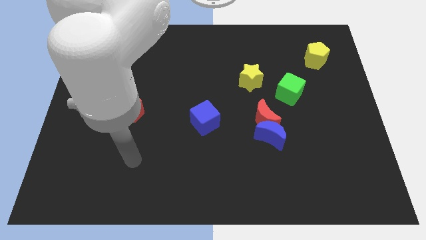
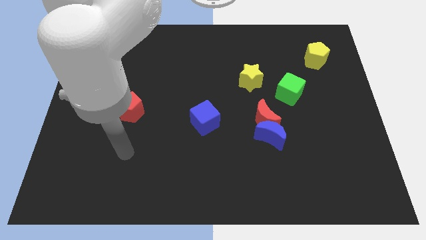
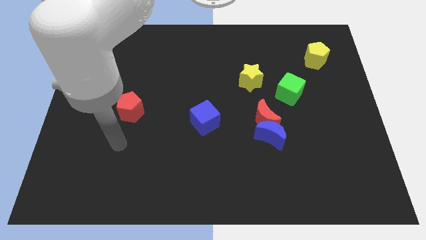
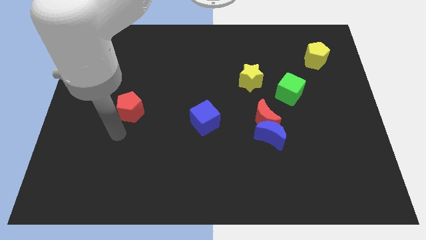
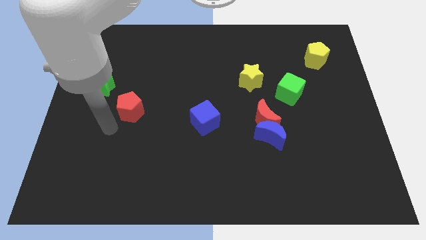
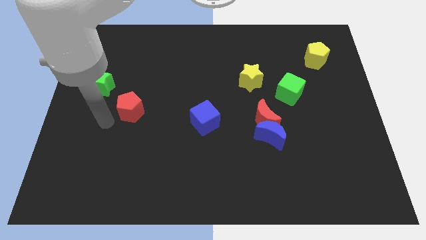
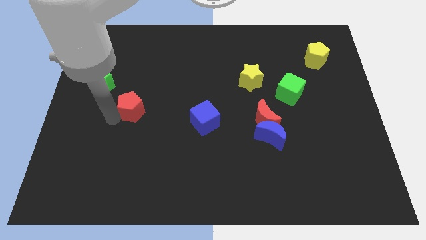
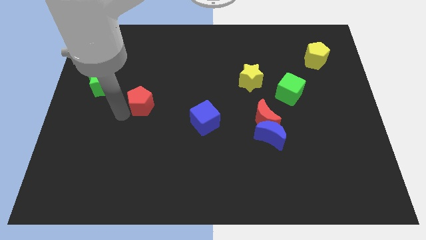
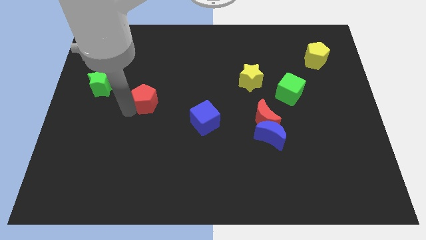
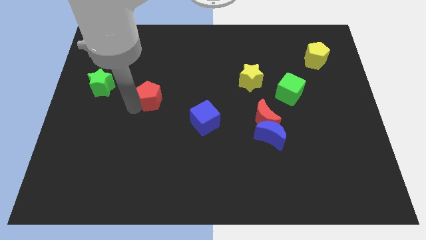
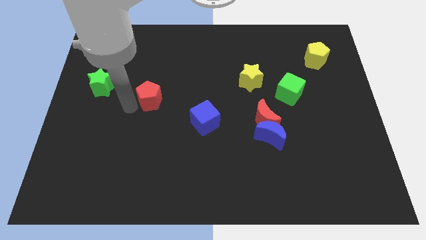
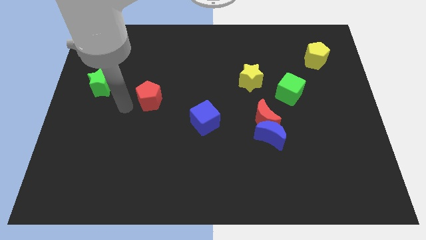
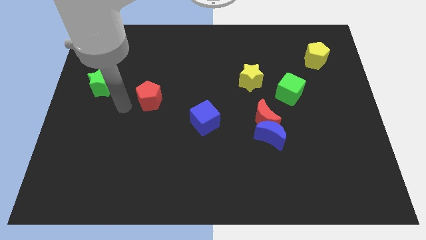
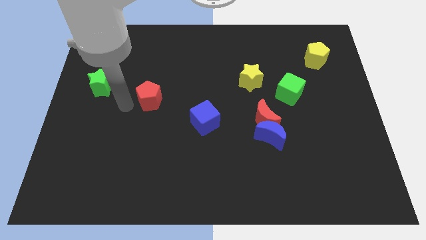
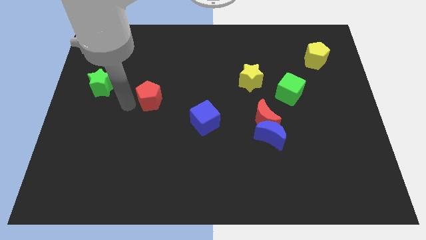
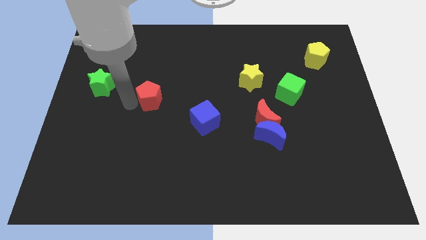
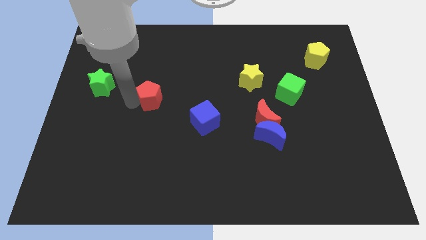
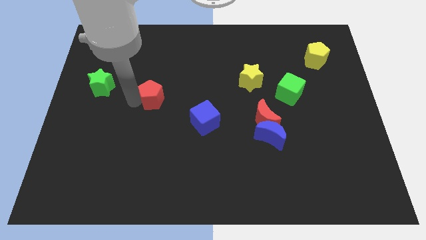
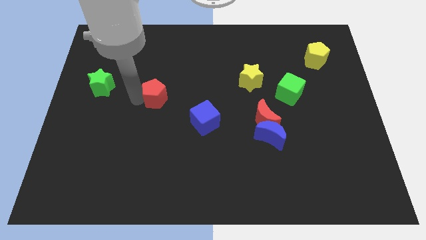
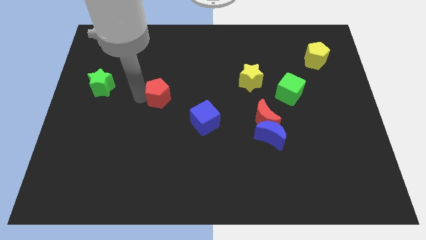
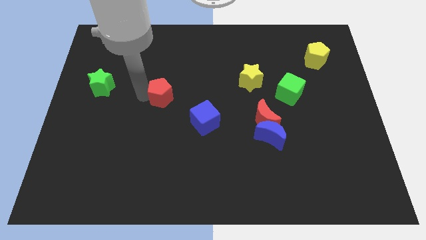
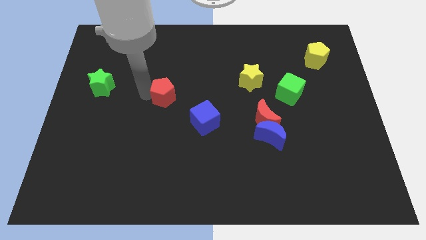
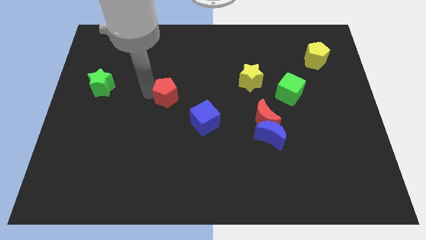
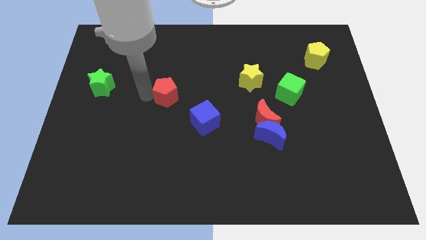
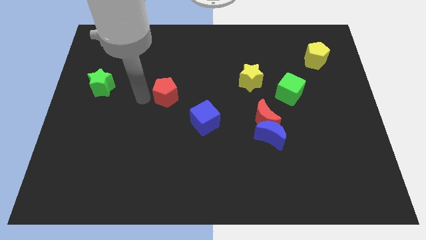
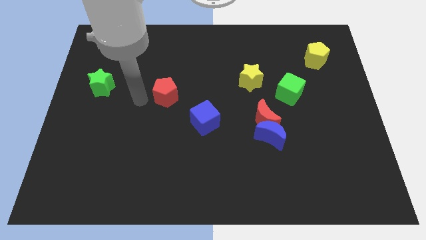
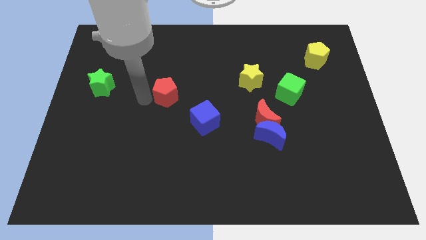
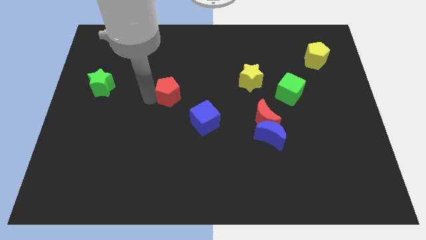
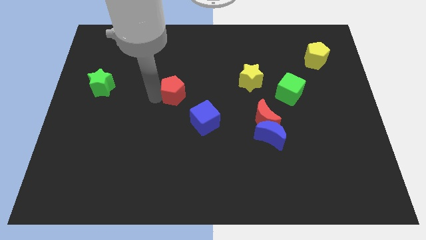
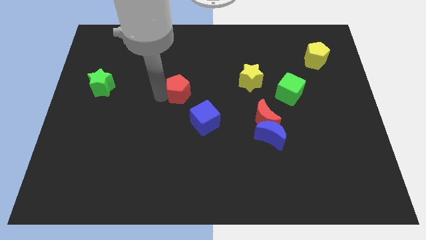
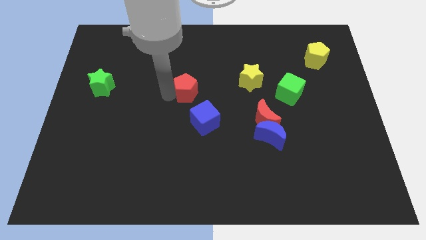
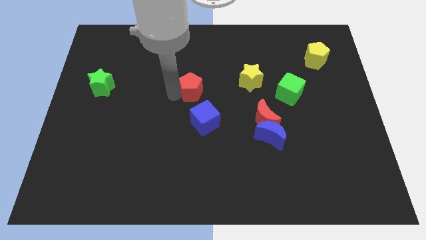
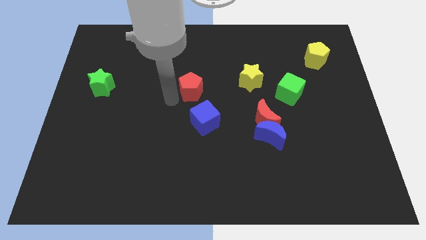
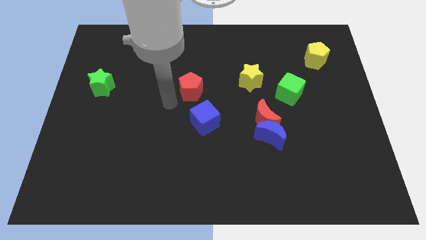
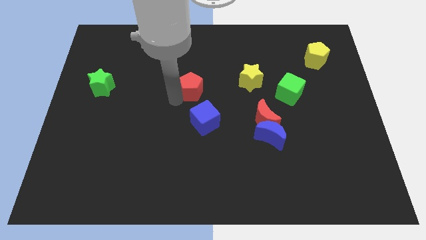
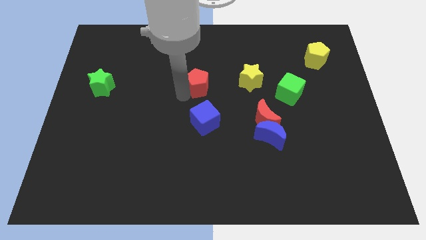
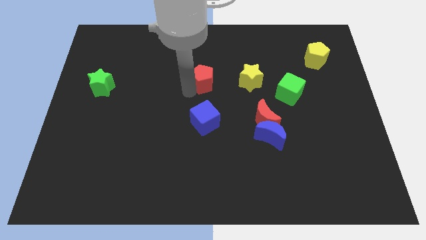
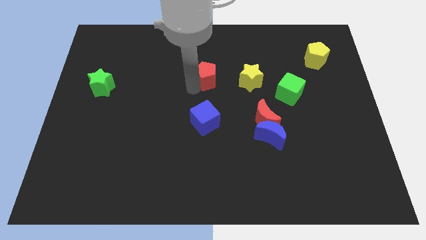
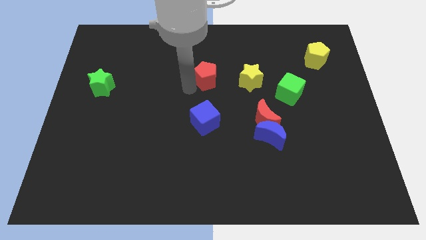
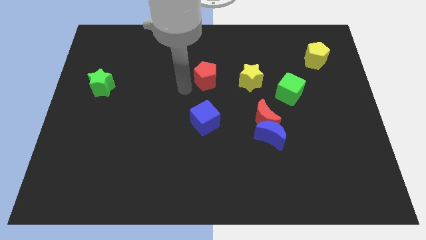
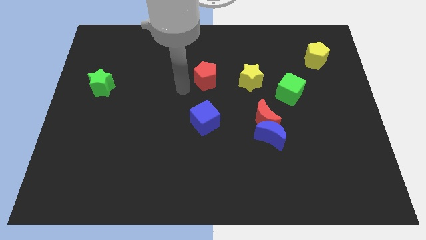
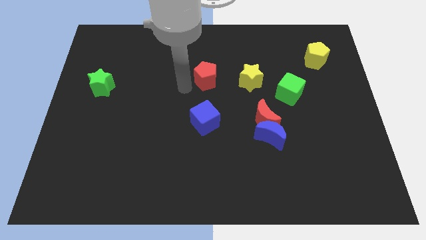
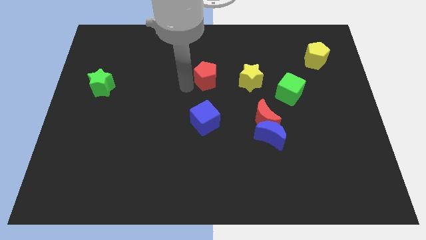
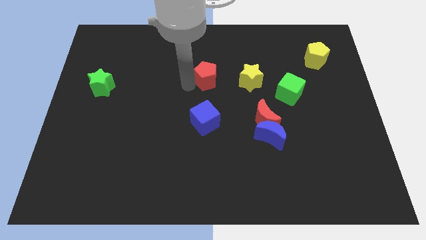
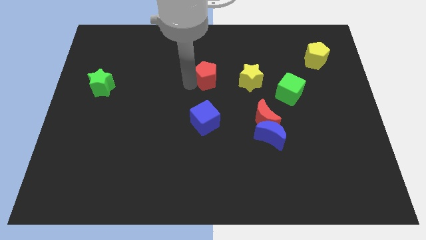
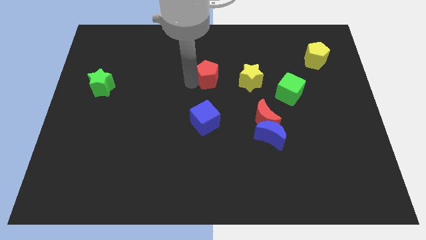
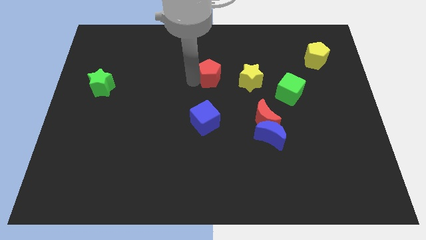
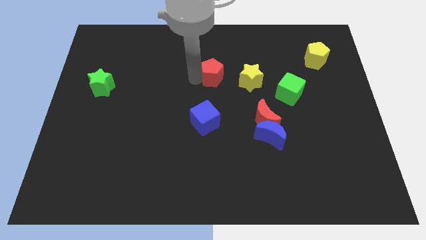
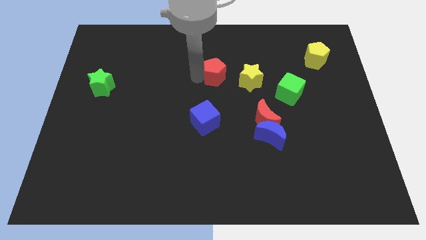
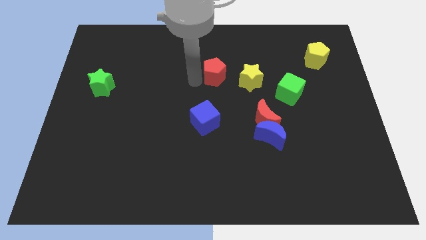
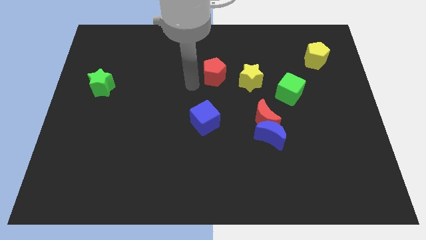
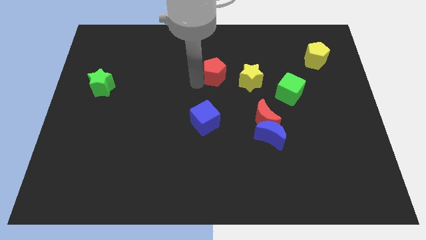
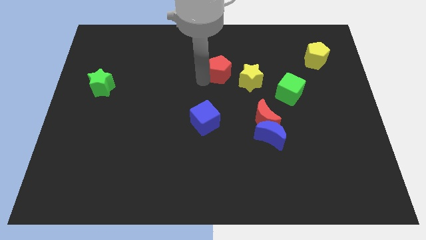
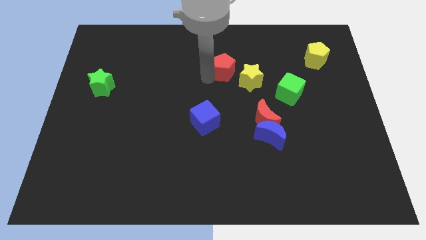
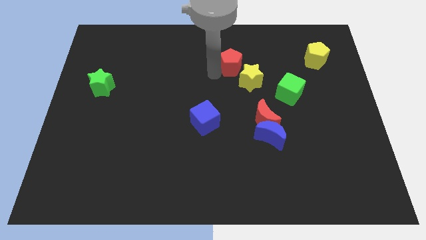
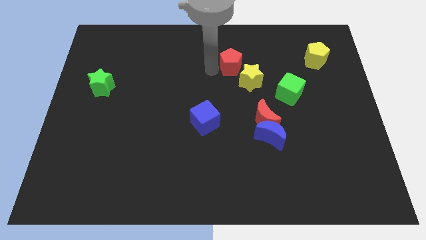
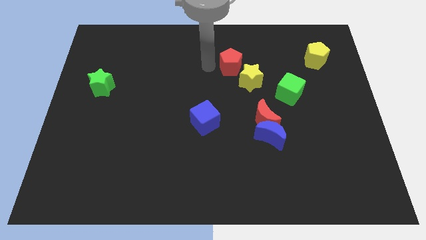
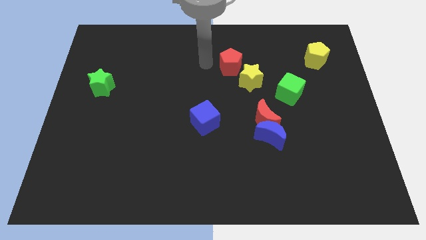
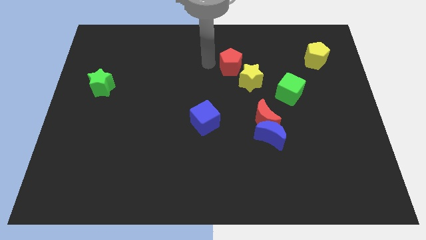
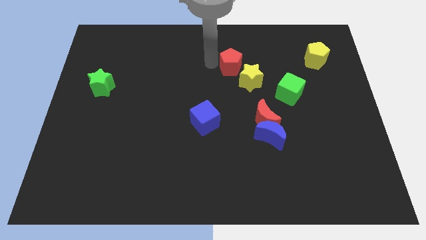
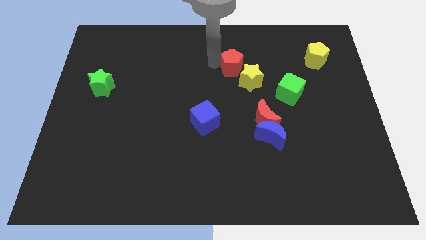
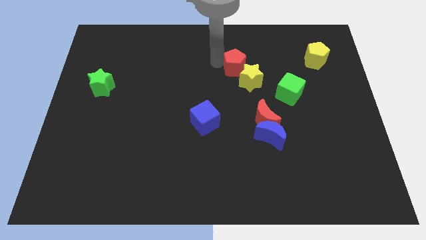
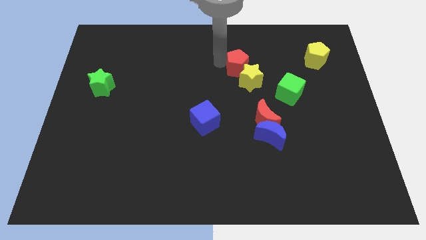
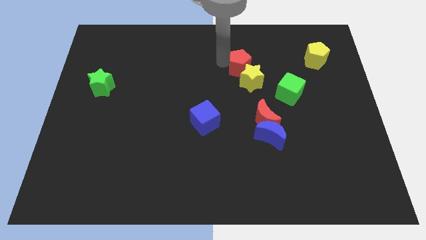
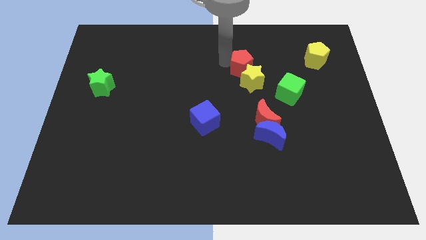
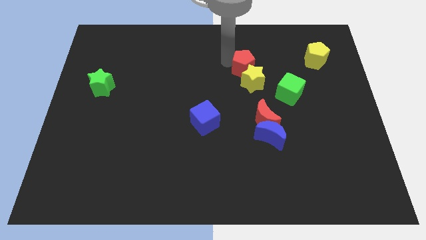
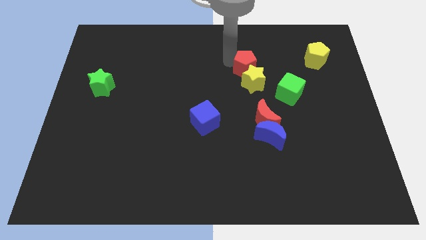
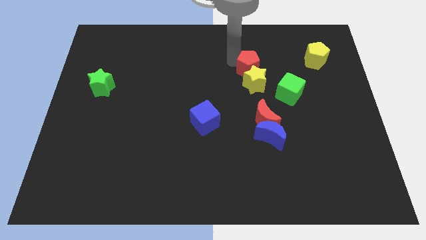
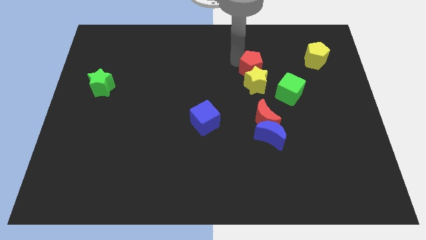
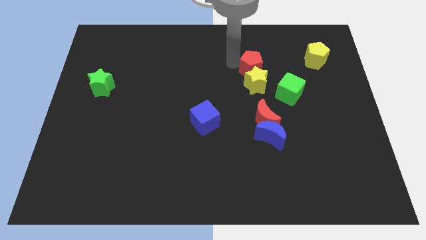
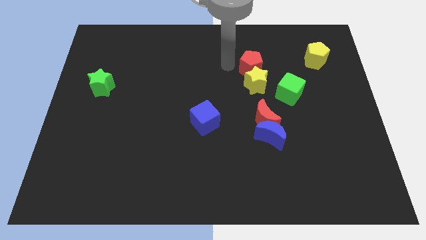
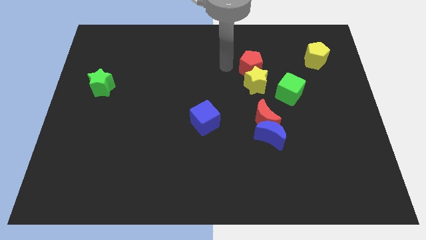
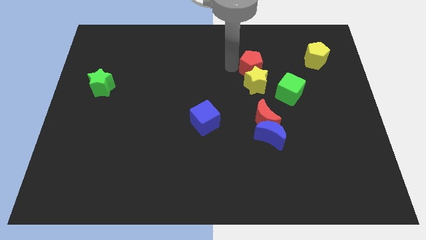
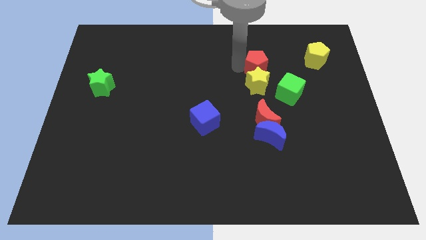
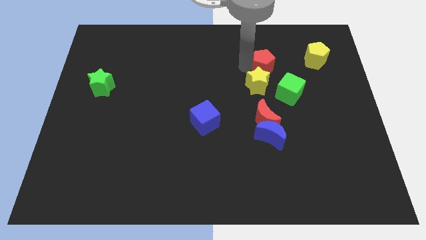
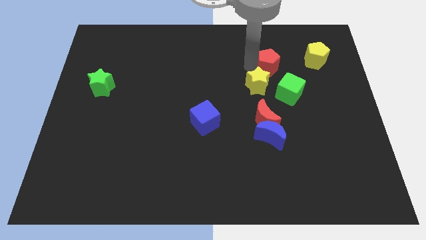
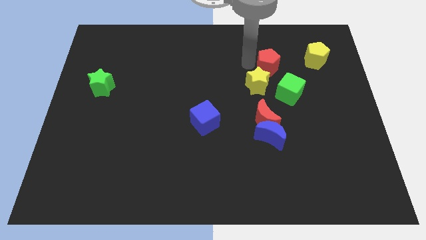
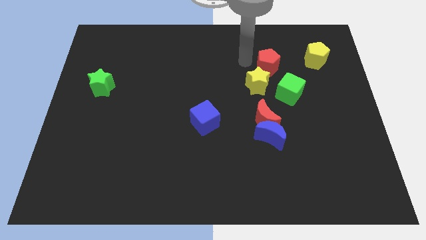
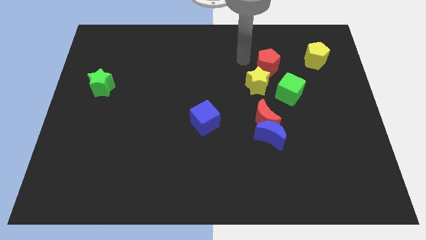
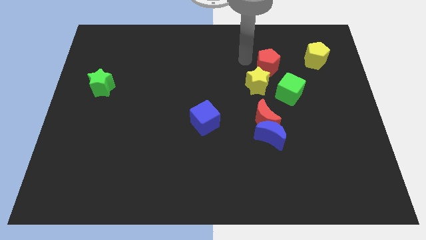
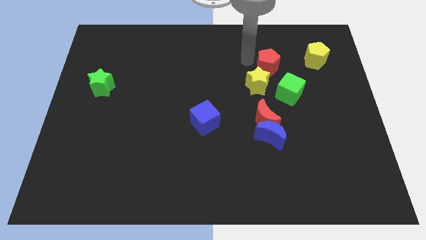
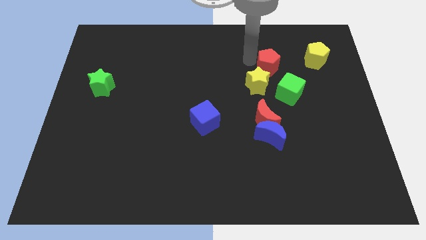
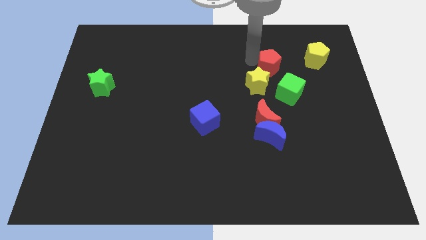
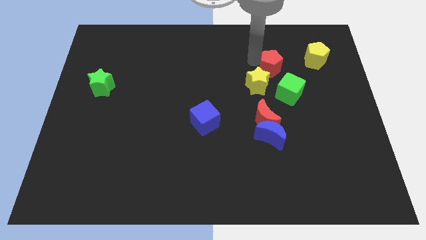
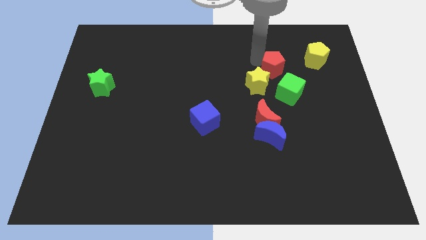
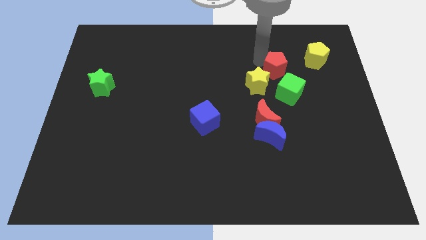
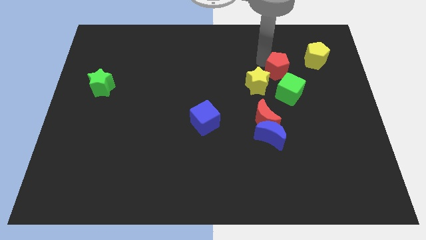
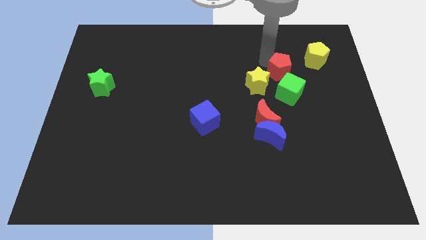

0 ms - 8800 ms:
move the red pentagon to the bottom left of the yellow pentagon
